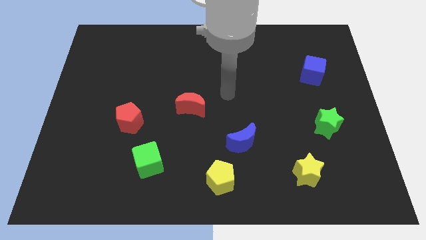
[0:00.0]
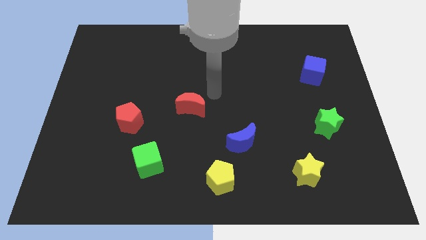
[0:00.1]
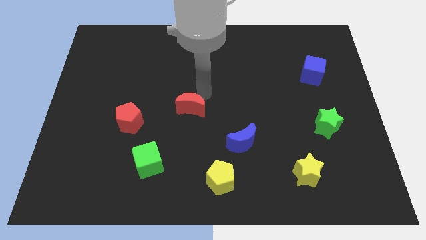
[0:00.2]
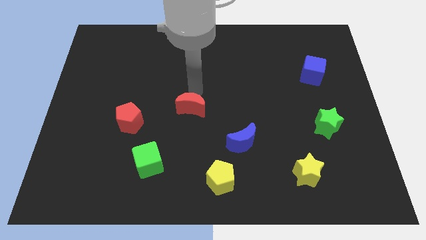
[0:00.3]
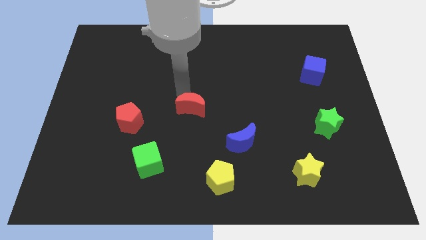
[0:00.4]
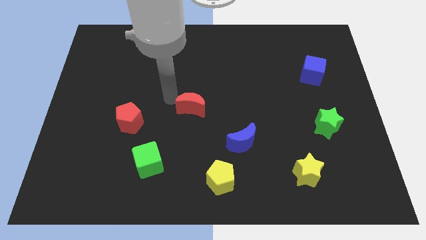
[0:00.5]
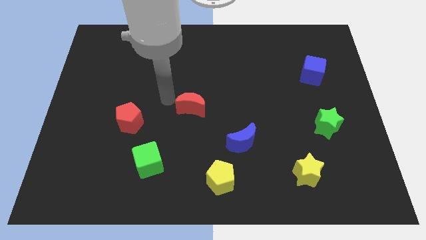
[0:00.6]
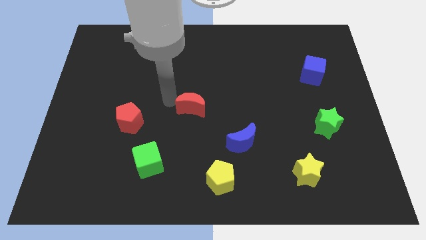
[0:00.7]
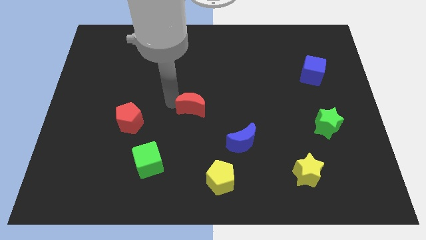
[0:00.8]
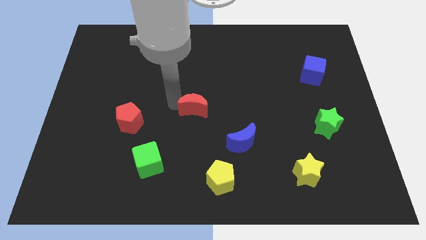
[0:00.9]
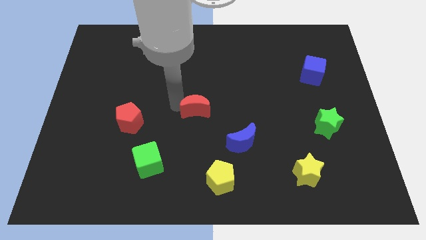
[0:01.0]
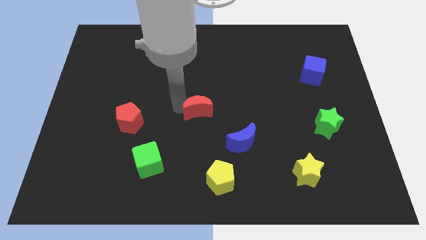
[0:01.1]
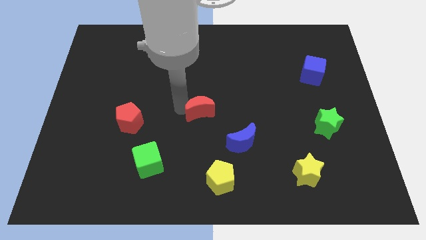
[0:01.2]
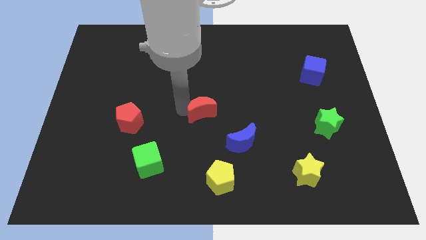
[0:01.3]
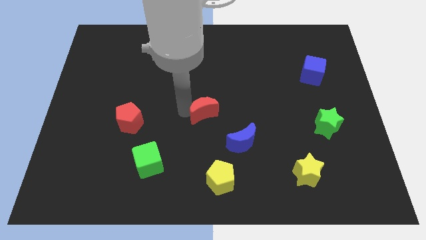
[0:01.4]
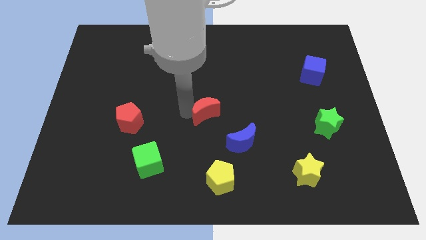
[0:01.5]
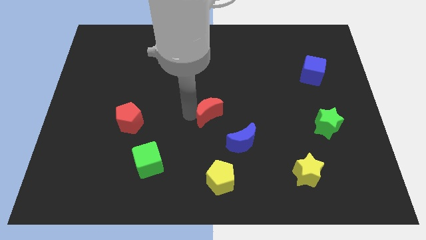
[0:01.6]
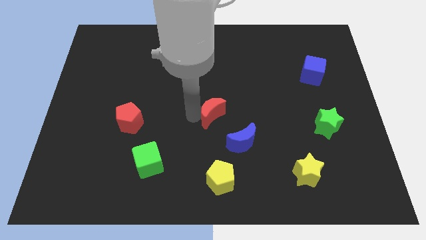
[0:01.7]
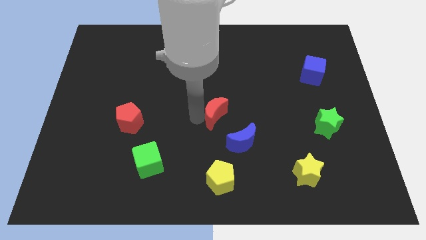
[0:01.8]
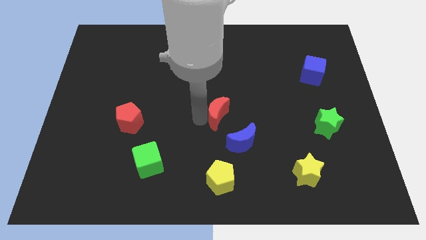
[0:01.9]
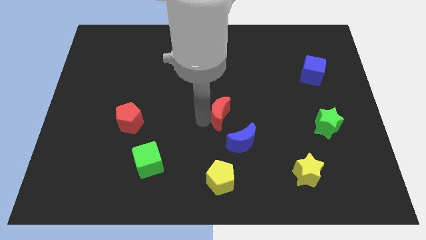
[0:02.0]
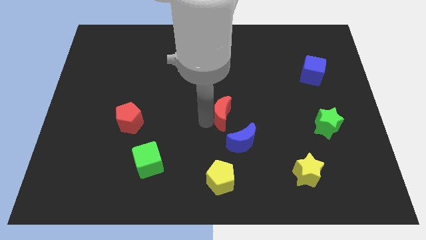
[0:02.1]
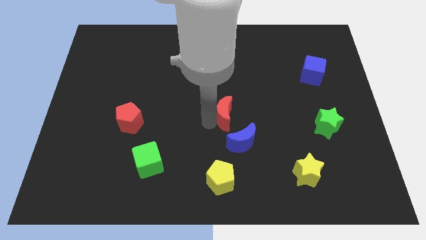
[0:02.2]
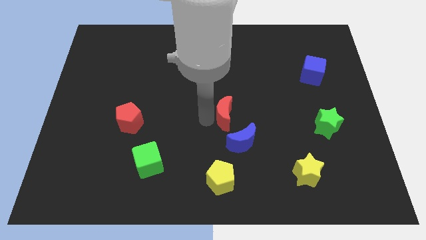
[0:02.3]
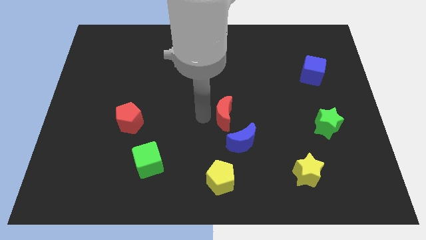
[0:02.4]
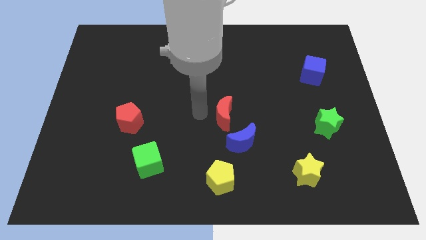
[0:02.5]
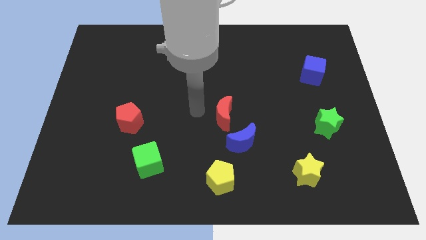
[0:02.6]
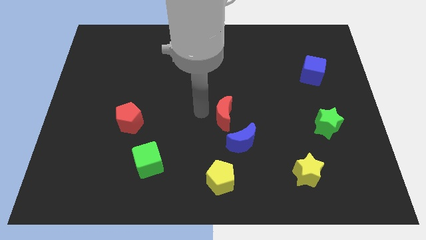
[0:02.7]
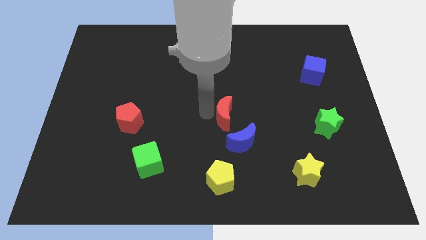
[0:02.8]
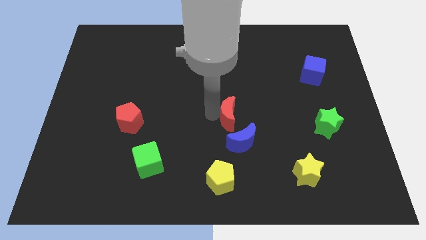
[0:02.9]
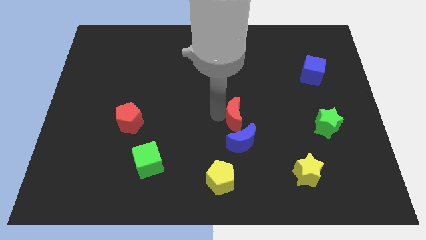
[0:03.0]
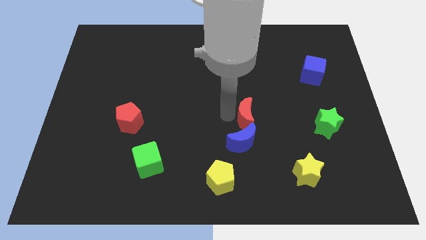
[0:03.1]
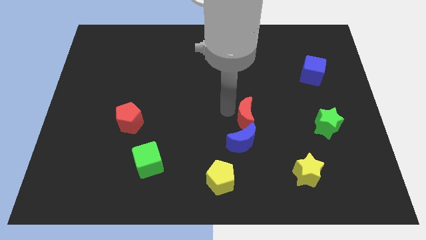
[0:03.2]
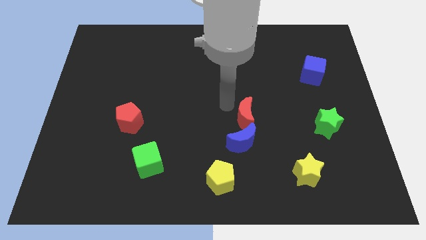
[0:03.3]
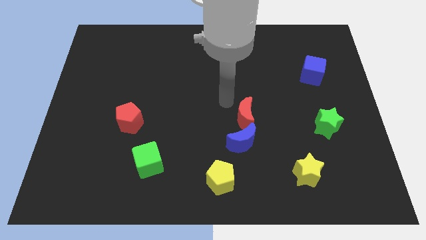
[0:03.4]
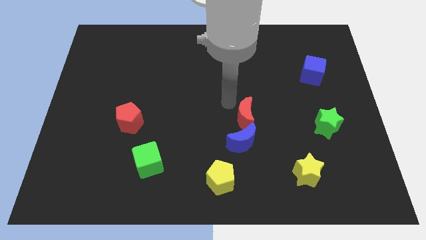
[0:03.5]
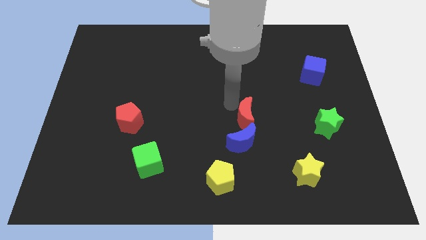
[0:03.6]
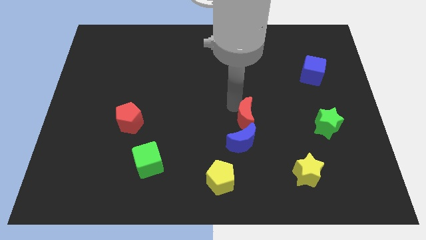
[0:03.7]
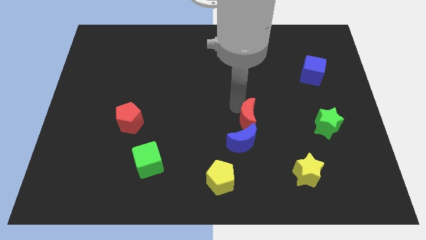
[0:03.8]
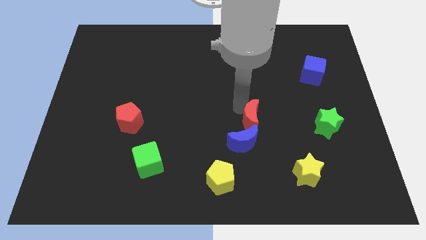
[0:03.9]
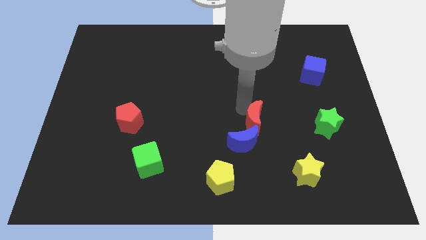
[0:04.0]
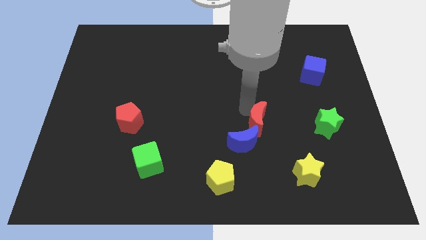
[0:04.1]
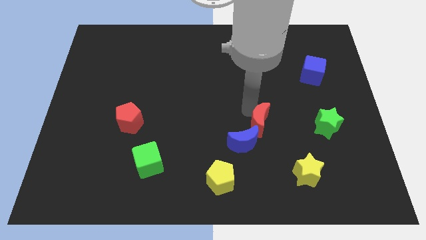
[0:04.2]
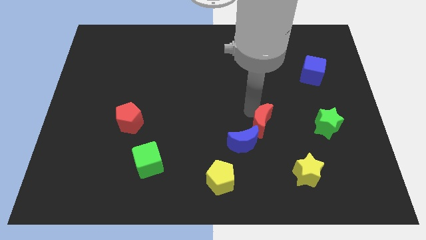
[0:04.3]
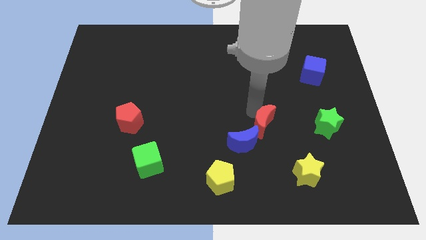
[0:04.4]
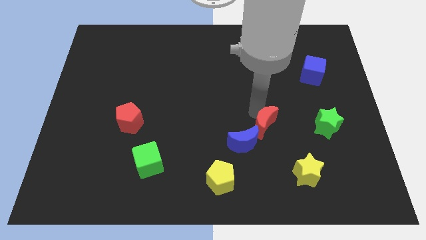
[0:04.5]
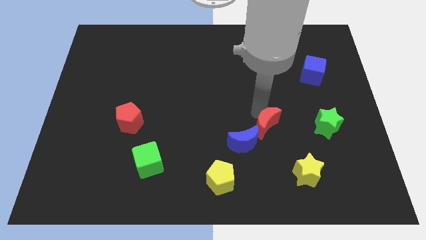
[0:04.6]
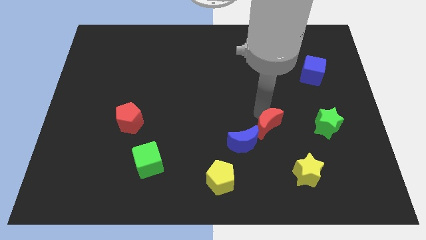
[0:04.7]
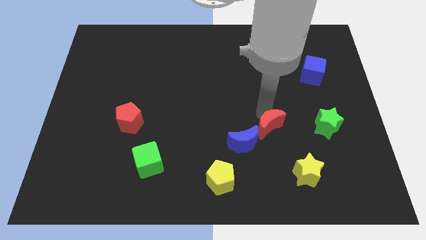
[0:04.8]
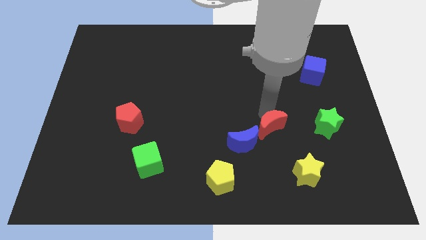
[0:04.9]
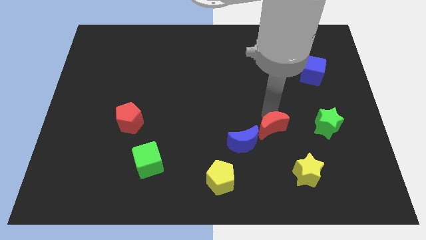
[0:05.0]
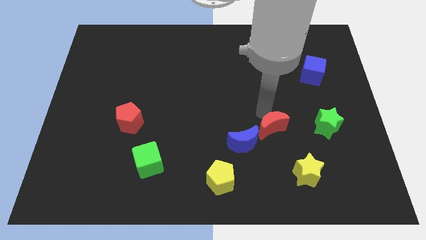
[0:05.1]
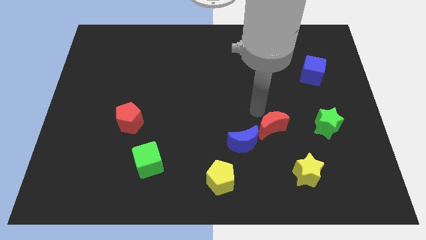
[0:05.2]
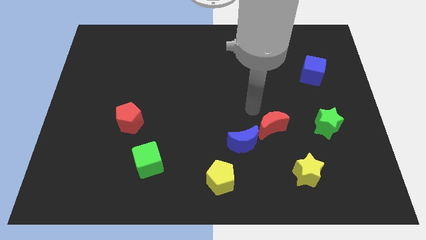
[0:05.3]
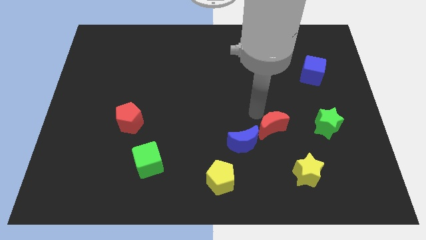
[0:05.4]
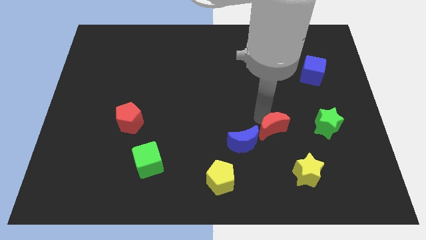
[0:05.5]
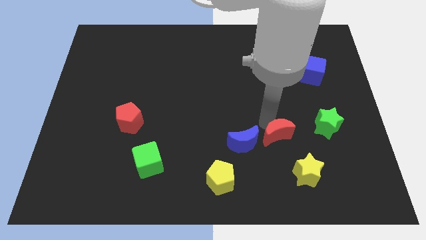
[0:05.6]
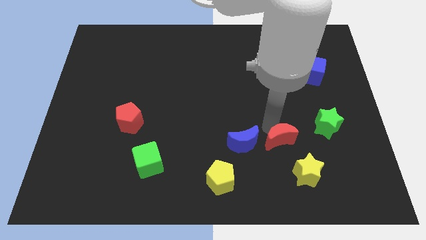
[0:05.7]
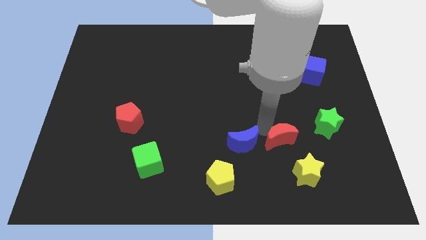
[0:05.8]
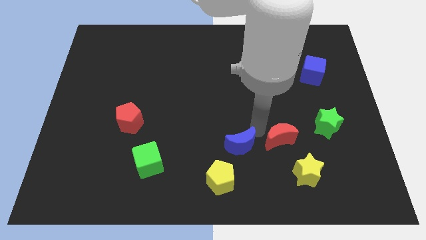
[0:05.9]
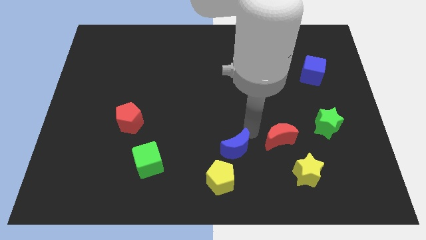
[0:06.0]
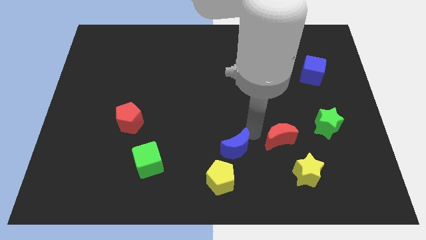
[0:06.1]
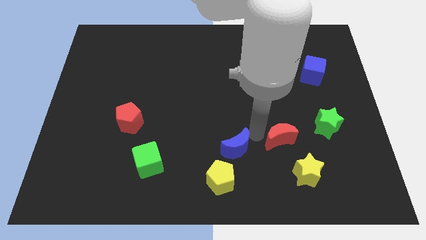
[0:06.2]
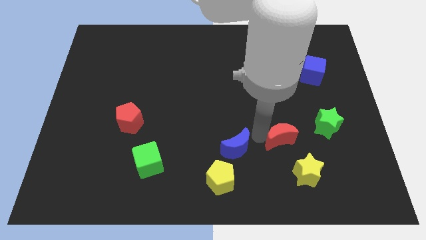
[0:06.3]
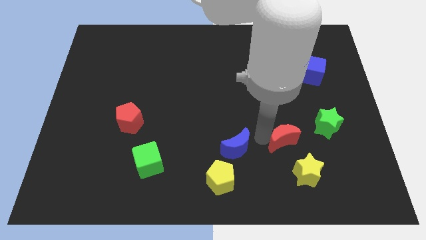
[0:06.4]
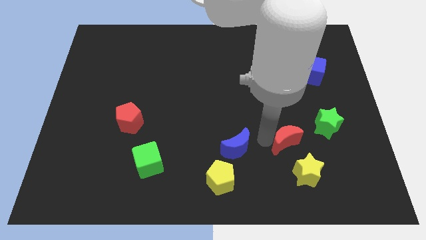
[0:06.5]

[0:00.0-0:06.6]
push the red moon diagonally down and to the left of the green star
